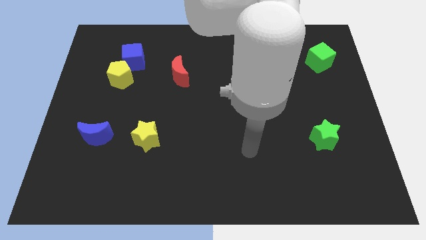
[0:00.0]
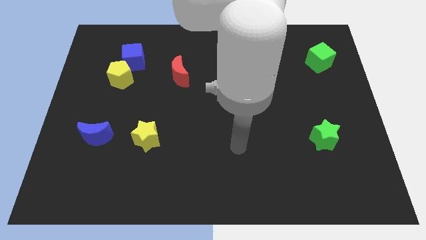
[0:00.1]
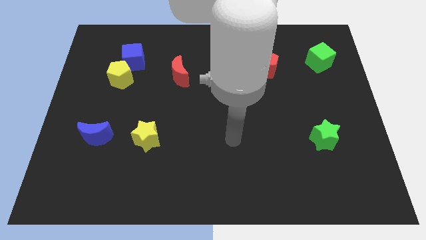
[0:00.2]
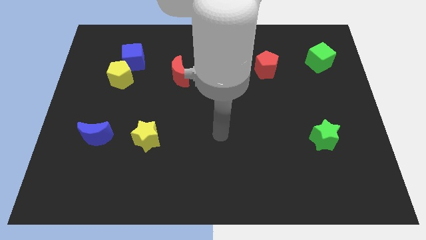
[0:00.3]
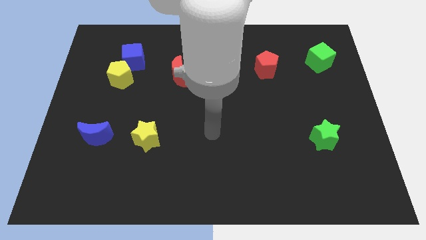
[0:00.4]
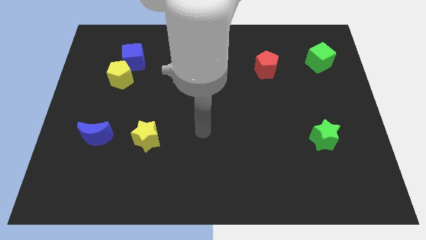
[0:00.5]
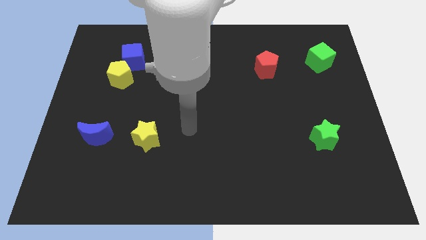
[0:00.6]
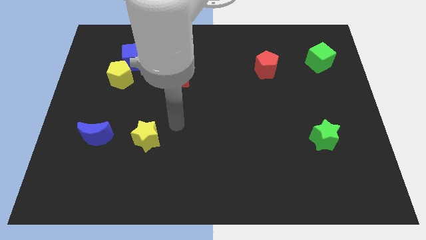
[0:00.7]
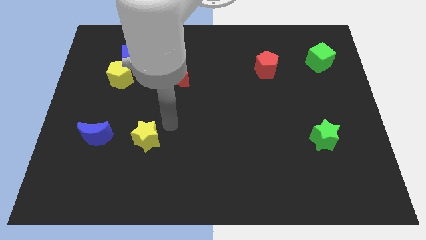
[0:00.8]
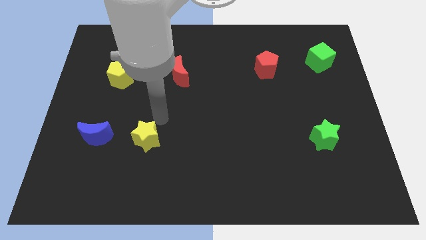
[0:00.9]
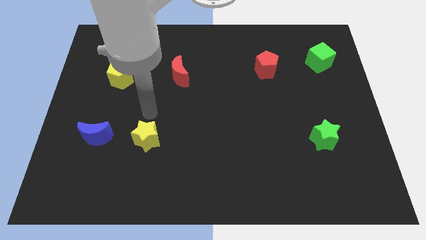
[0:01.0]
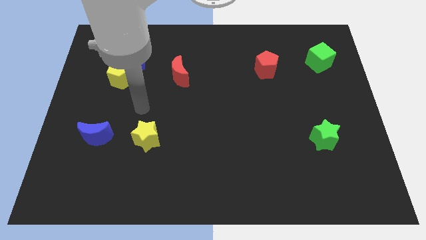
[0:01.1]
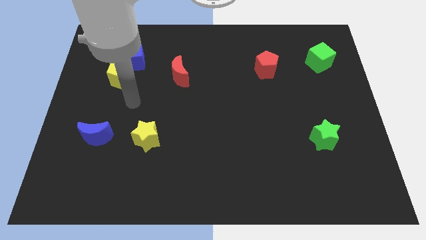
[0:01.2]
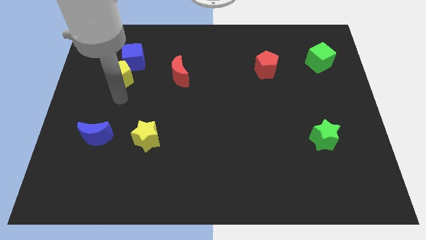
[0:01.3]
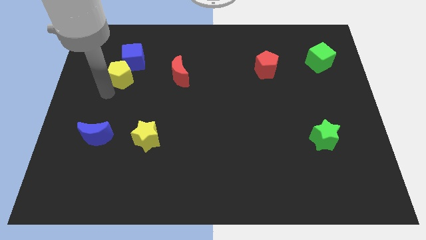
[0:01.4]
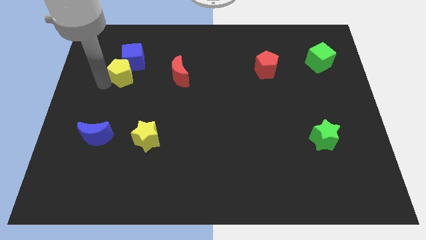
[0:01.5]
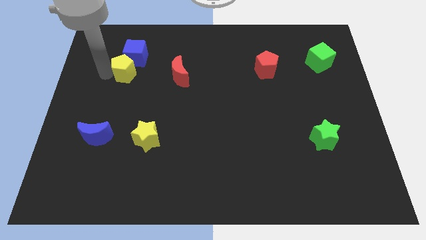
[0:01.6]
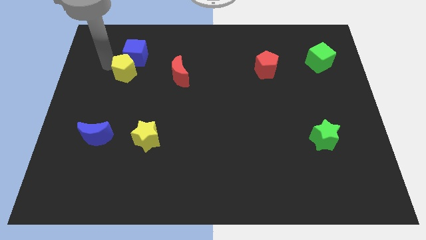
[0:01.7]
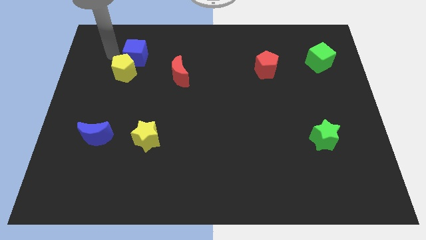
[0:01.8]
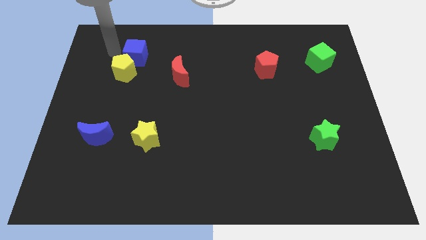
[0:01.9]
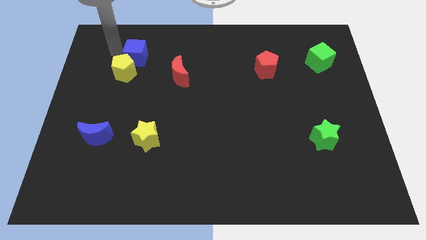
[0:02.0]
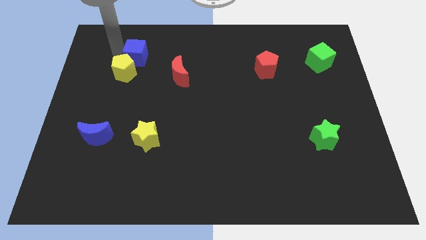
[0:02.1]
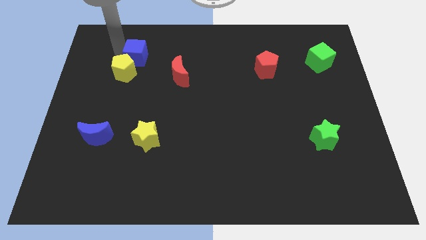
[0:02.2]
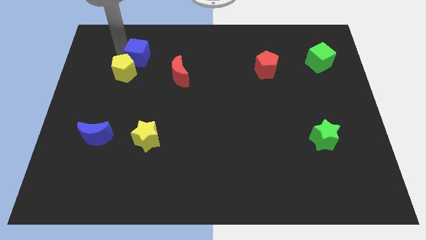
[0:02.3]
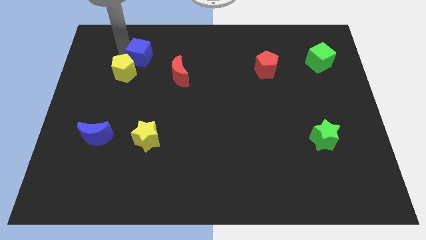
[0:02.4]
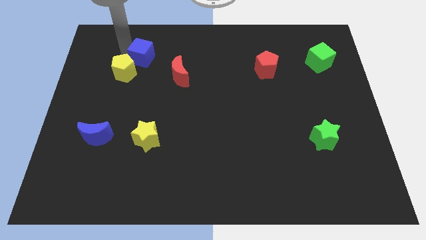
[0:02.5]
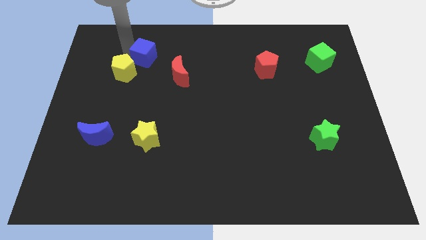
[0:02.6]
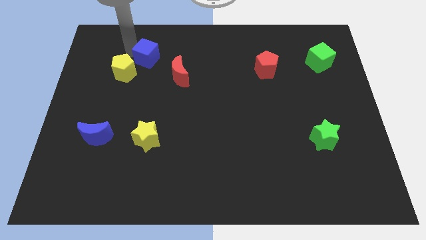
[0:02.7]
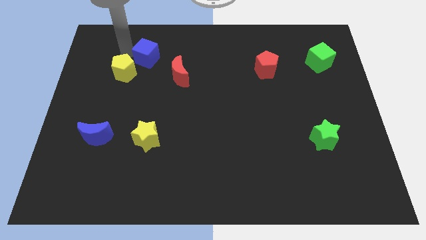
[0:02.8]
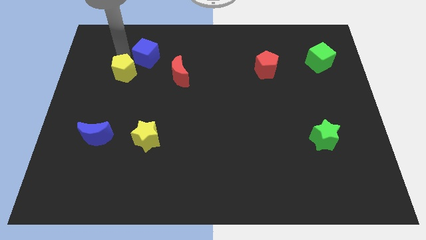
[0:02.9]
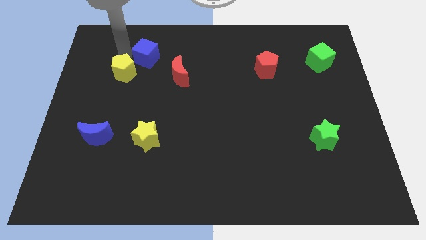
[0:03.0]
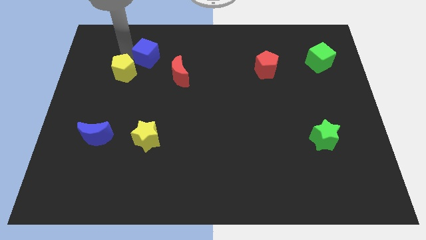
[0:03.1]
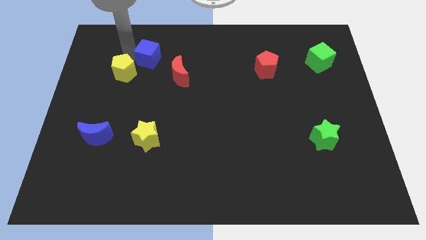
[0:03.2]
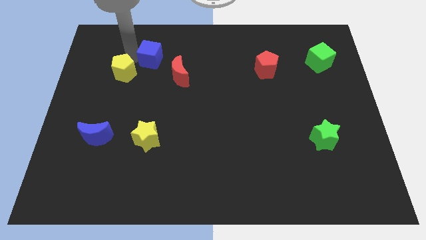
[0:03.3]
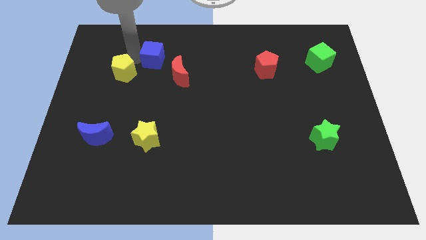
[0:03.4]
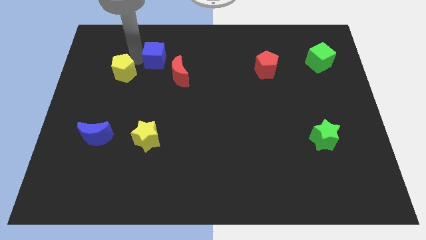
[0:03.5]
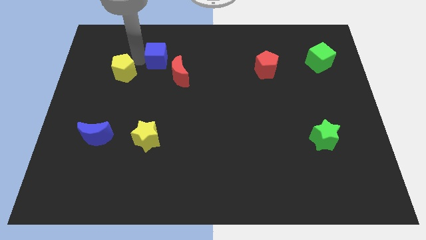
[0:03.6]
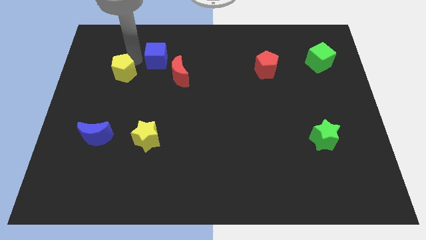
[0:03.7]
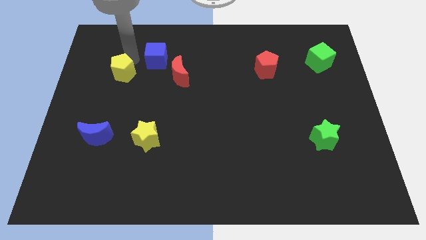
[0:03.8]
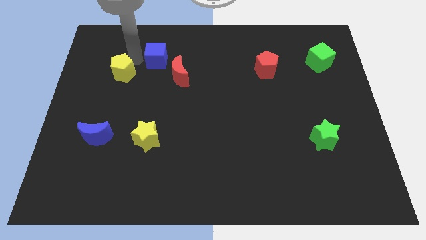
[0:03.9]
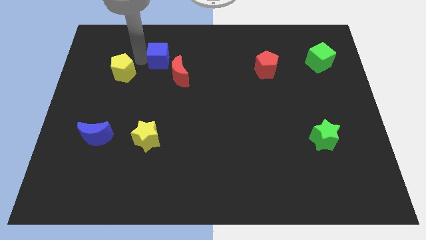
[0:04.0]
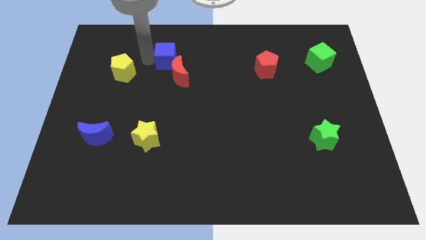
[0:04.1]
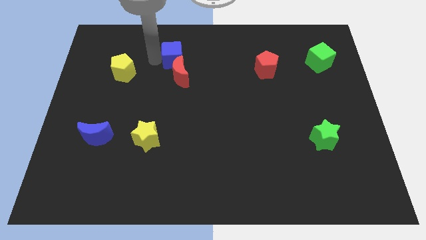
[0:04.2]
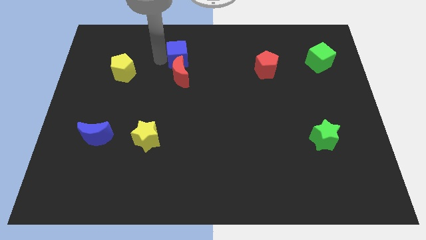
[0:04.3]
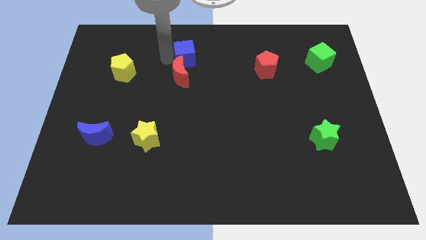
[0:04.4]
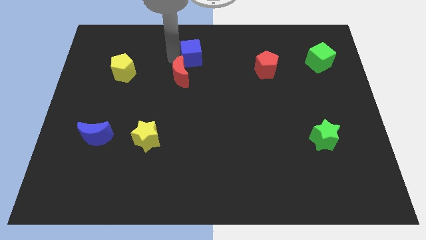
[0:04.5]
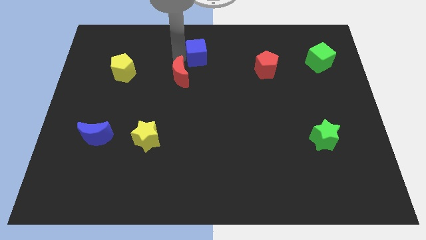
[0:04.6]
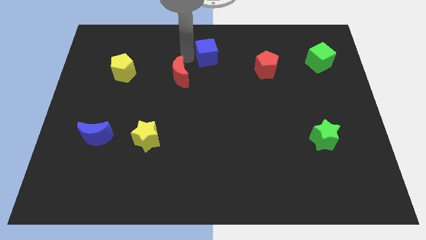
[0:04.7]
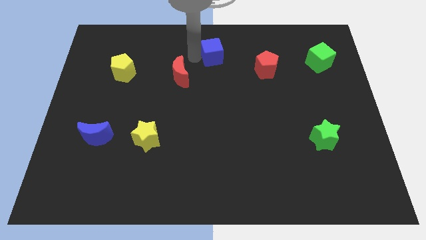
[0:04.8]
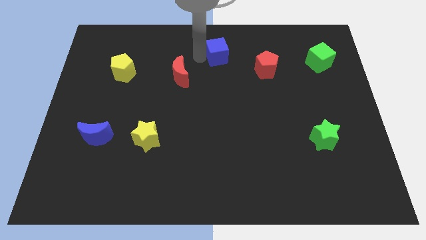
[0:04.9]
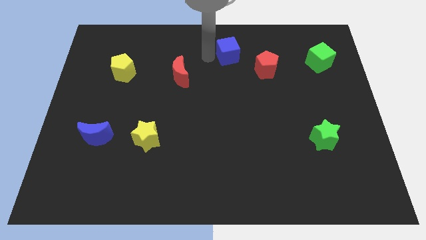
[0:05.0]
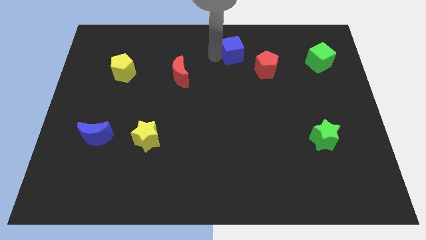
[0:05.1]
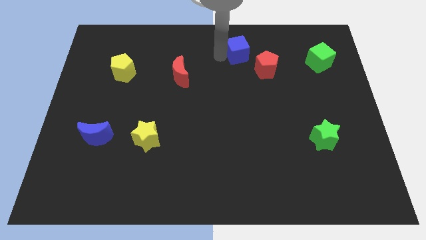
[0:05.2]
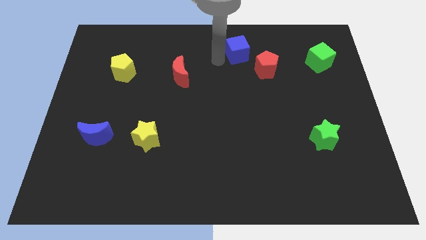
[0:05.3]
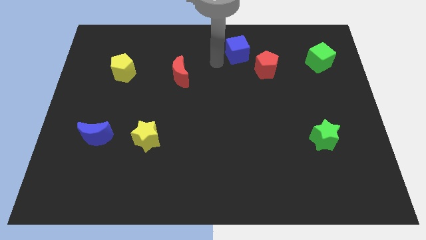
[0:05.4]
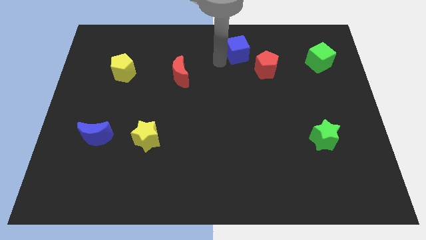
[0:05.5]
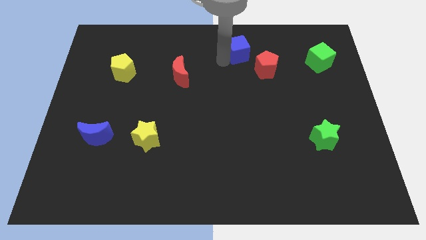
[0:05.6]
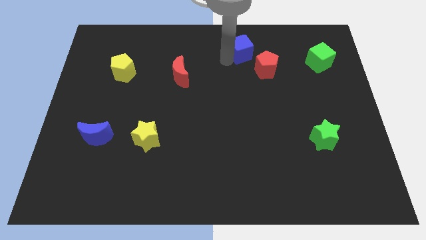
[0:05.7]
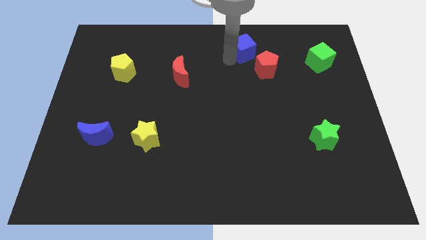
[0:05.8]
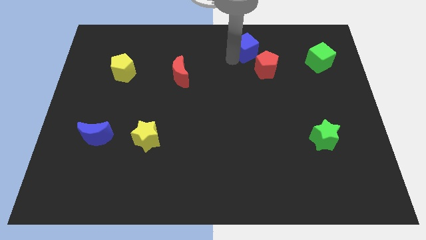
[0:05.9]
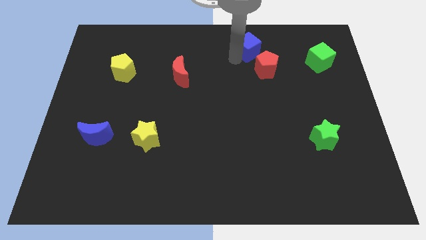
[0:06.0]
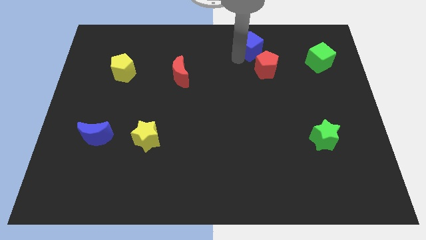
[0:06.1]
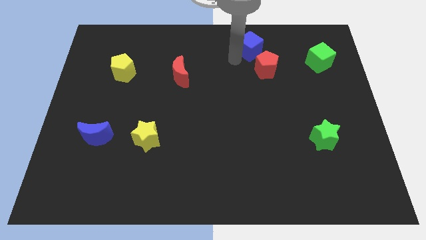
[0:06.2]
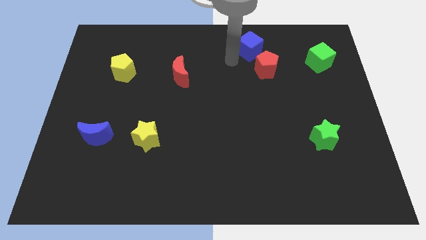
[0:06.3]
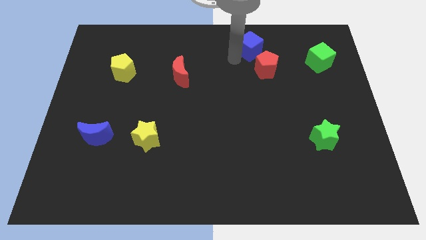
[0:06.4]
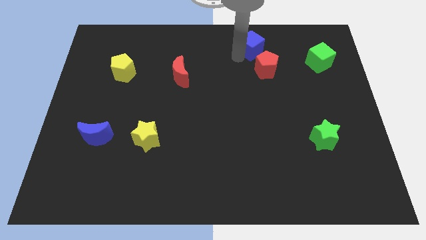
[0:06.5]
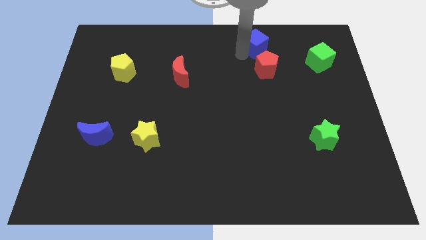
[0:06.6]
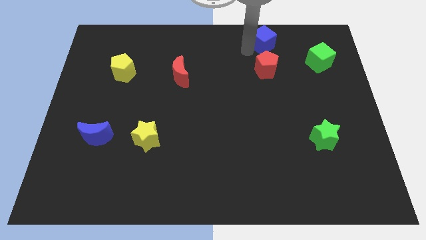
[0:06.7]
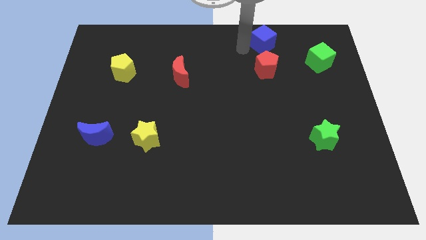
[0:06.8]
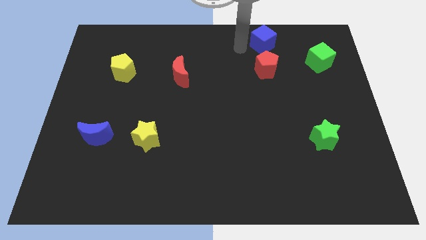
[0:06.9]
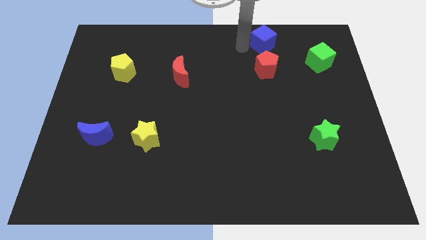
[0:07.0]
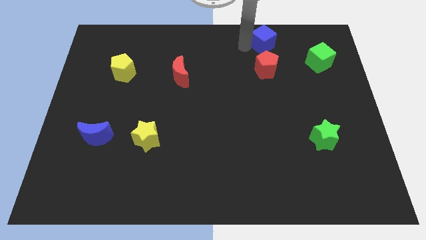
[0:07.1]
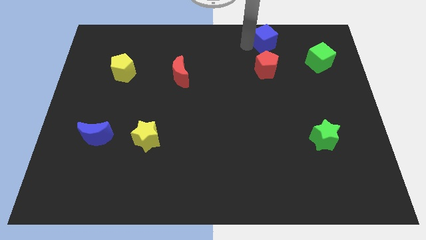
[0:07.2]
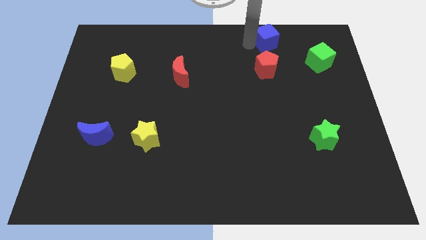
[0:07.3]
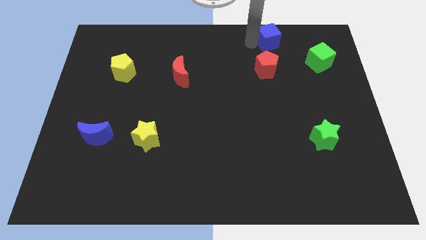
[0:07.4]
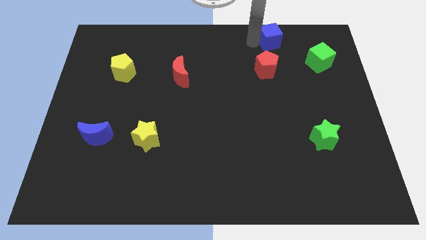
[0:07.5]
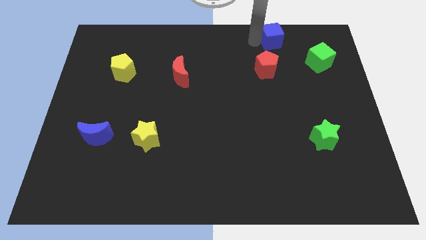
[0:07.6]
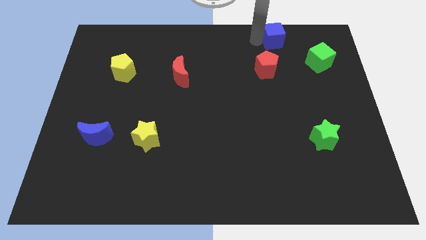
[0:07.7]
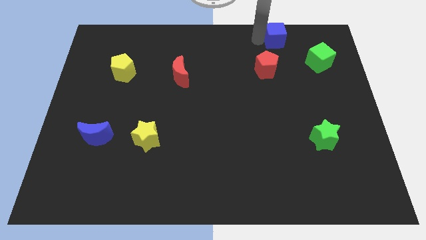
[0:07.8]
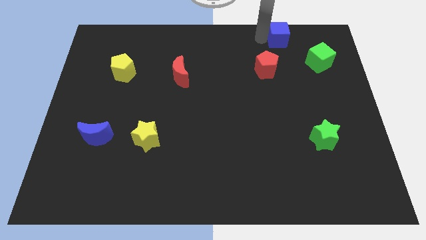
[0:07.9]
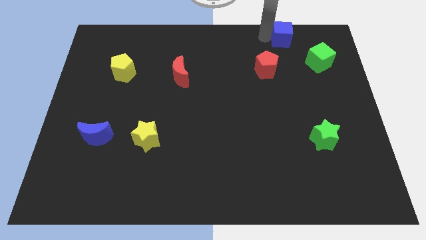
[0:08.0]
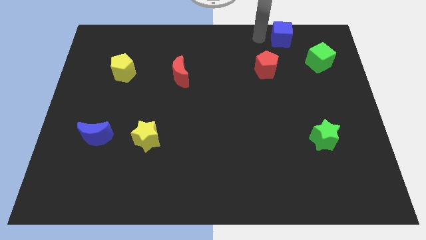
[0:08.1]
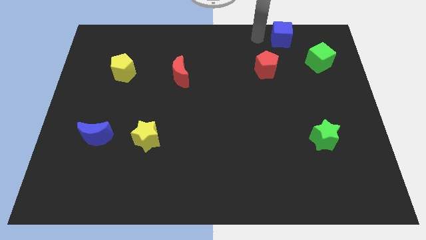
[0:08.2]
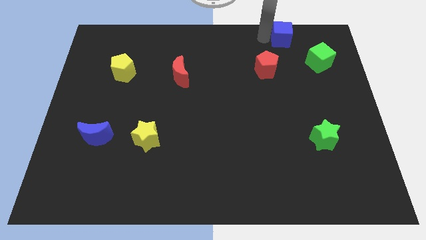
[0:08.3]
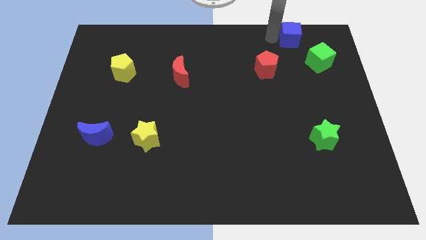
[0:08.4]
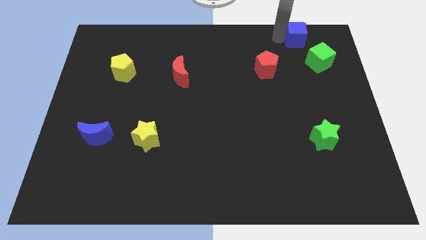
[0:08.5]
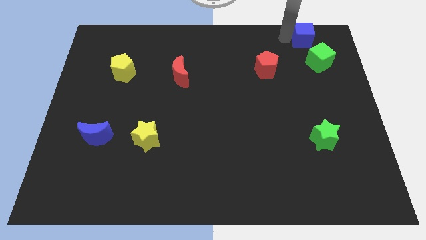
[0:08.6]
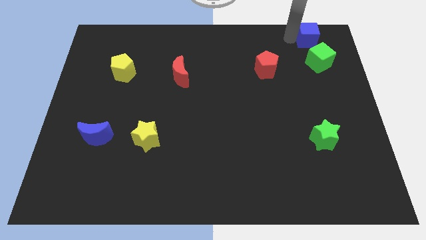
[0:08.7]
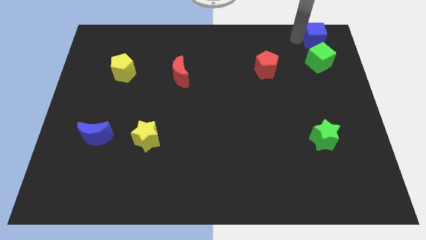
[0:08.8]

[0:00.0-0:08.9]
slide the blue cube to the top right corner
